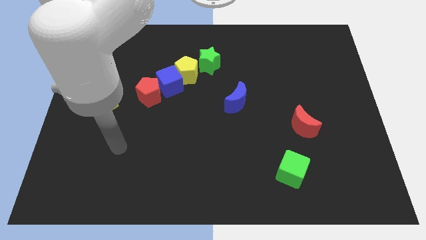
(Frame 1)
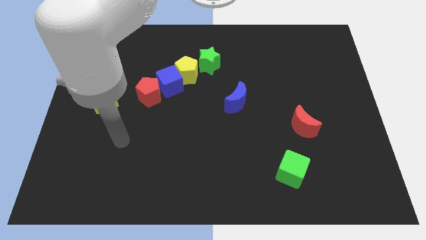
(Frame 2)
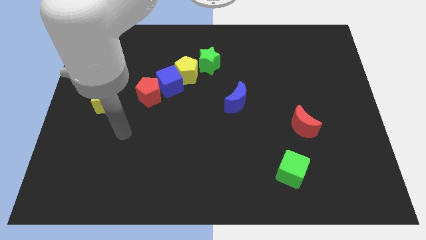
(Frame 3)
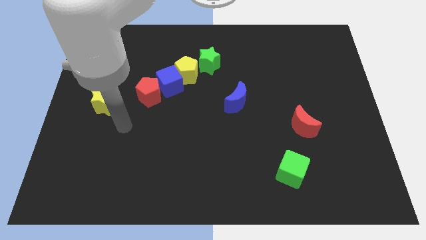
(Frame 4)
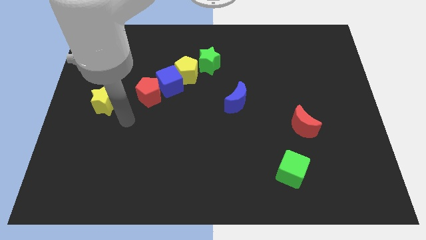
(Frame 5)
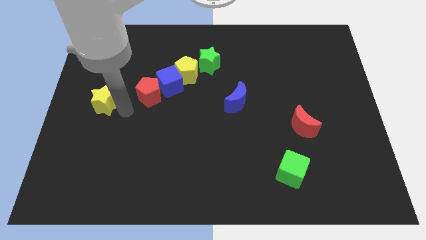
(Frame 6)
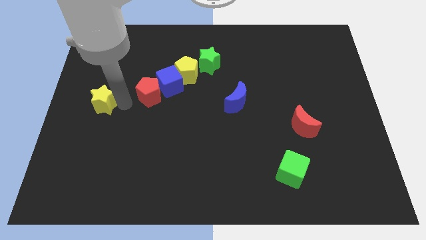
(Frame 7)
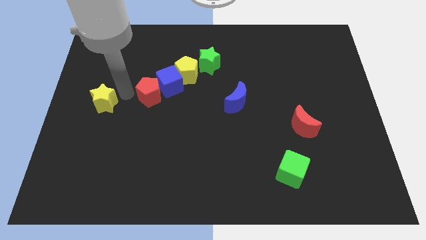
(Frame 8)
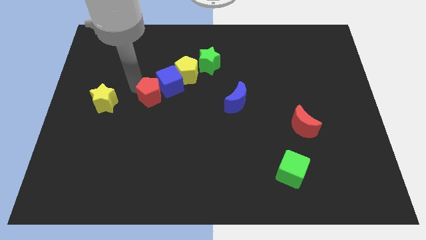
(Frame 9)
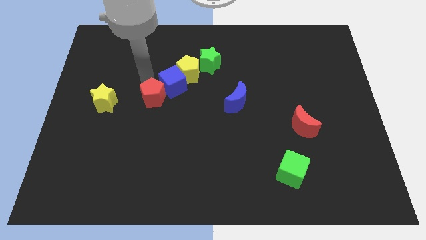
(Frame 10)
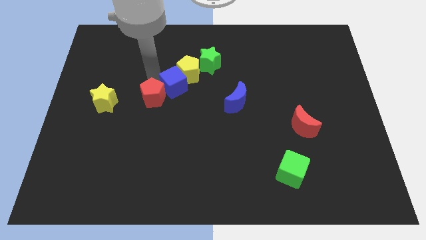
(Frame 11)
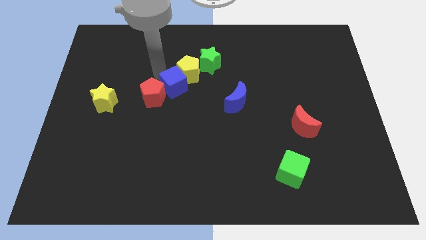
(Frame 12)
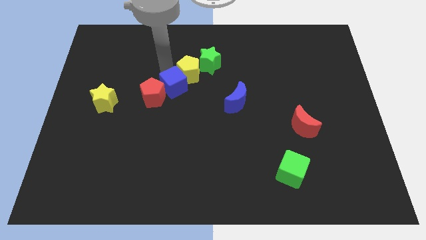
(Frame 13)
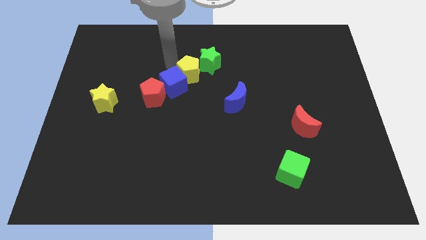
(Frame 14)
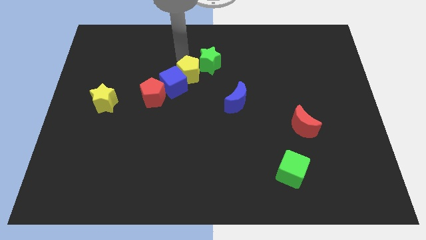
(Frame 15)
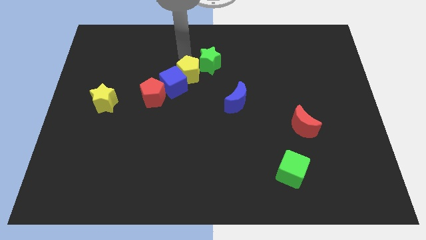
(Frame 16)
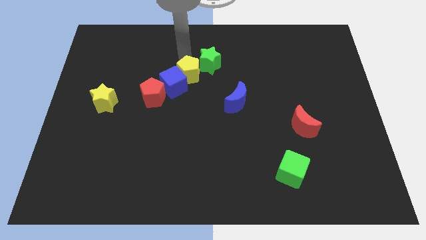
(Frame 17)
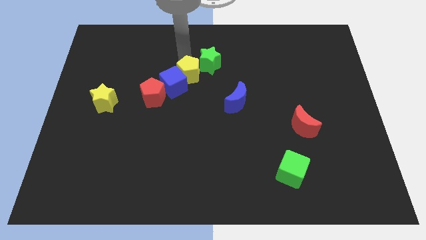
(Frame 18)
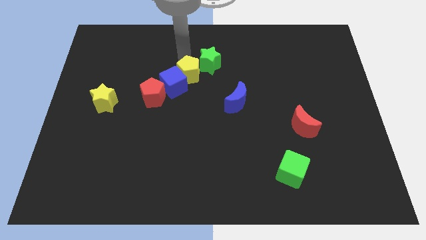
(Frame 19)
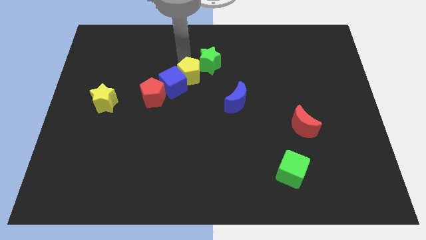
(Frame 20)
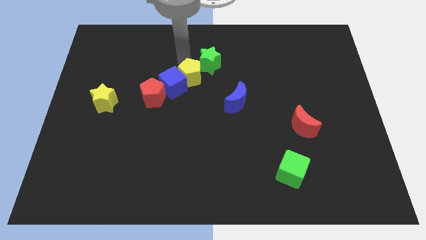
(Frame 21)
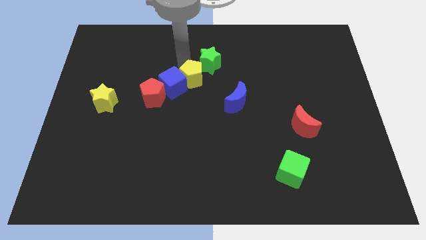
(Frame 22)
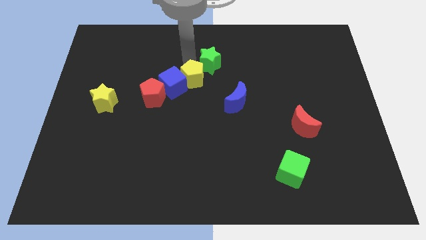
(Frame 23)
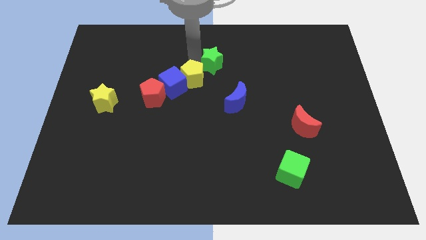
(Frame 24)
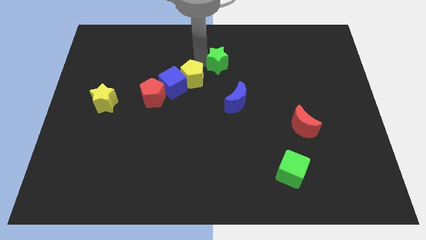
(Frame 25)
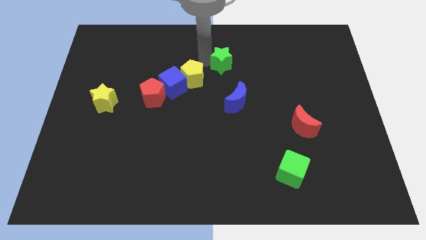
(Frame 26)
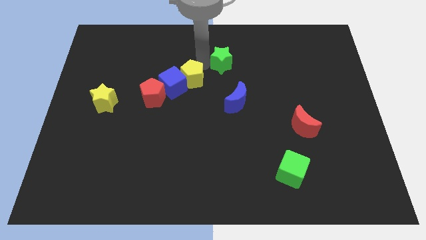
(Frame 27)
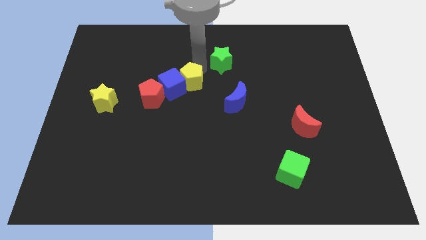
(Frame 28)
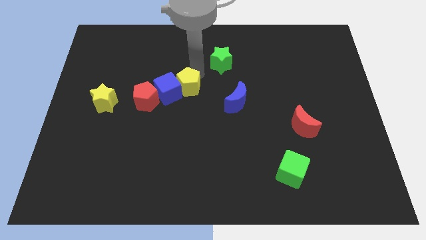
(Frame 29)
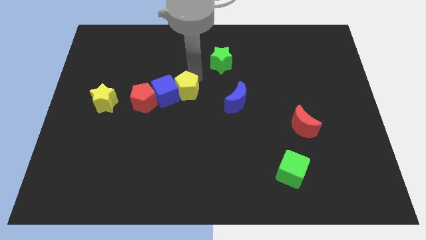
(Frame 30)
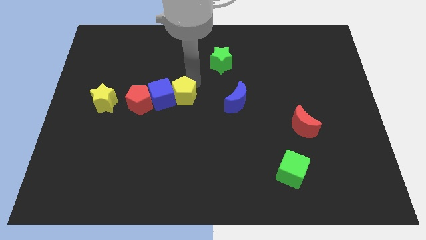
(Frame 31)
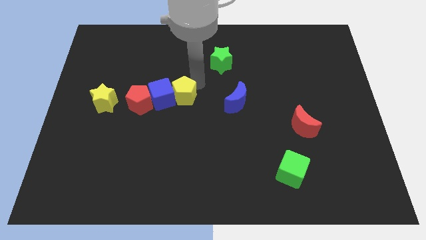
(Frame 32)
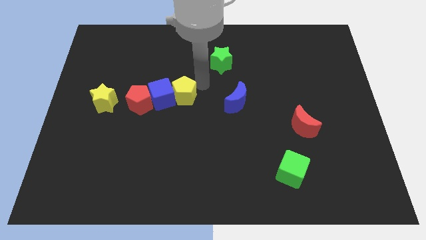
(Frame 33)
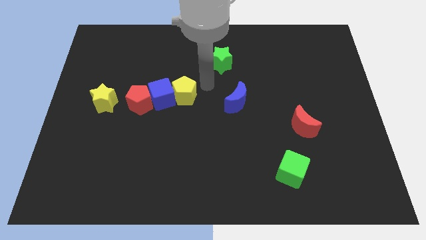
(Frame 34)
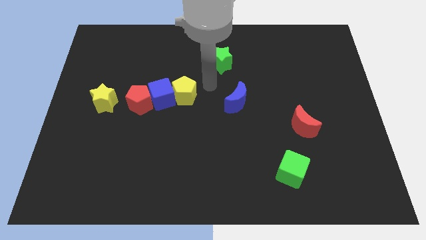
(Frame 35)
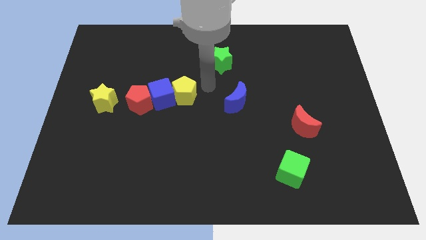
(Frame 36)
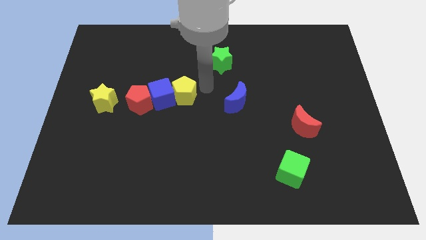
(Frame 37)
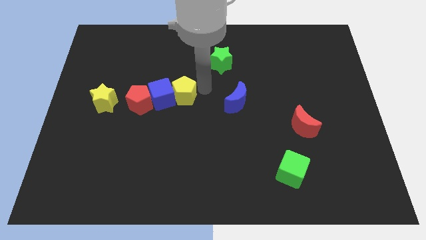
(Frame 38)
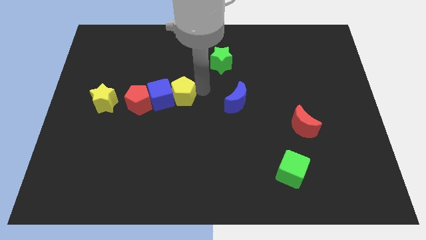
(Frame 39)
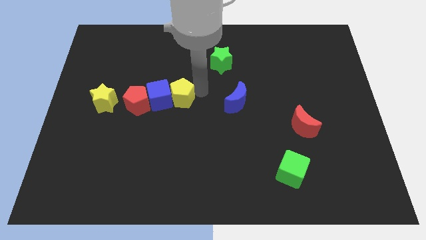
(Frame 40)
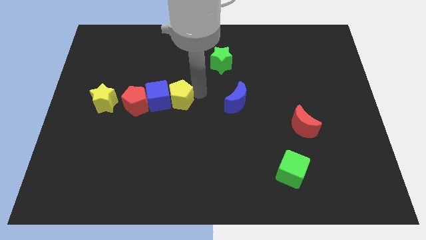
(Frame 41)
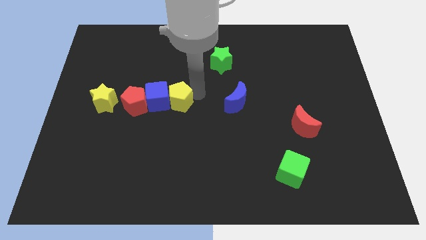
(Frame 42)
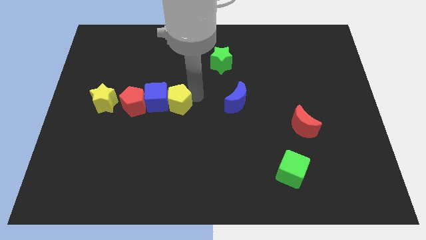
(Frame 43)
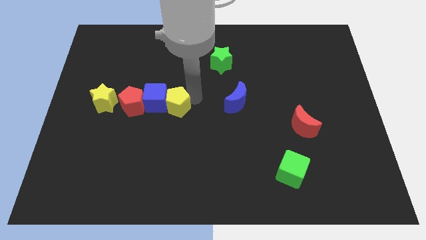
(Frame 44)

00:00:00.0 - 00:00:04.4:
slide the yellow pentagon down and then to the left somewhat

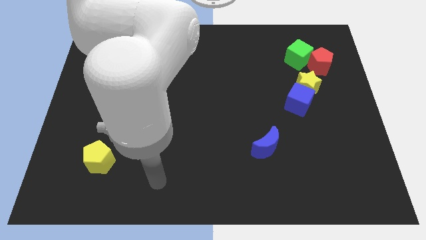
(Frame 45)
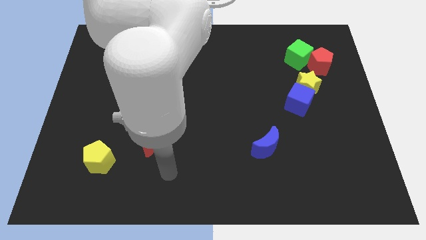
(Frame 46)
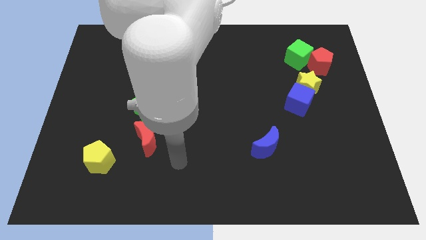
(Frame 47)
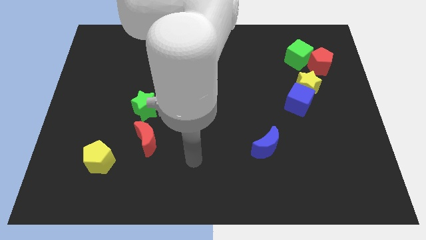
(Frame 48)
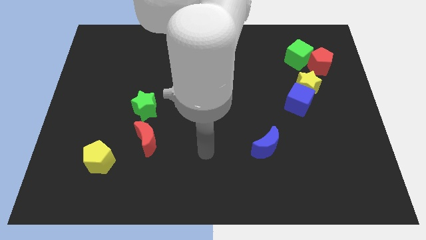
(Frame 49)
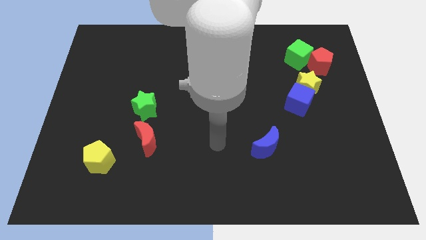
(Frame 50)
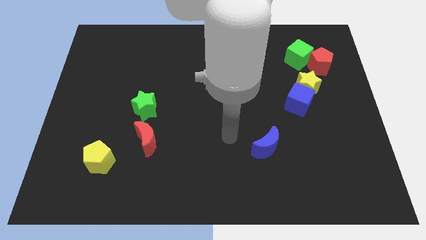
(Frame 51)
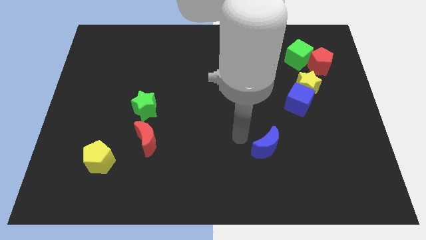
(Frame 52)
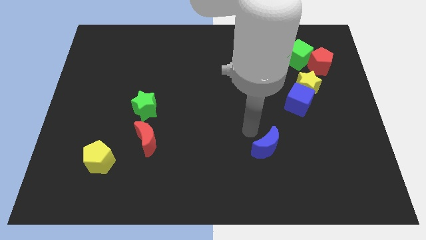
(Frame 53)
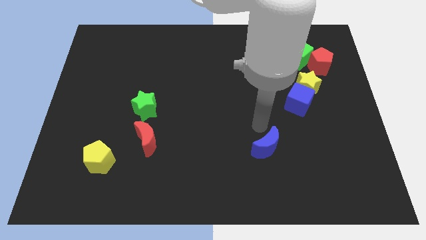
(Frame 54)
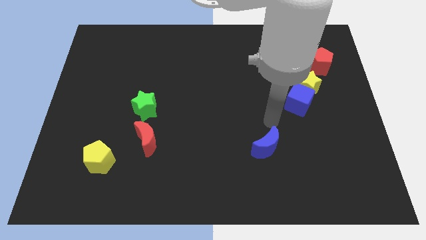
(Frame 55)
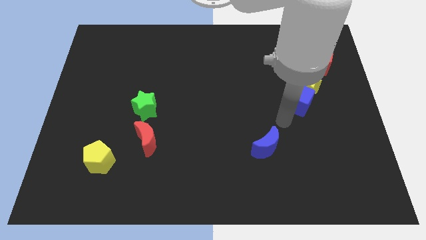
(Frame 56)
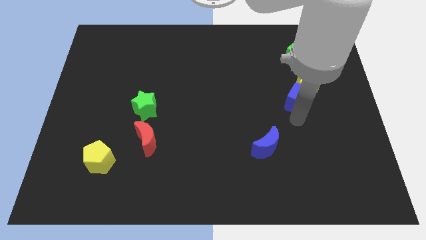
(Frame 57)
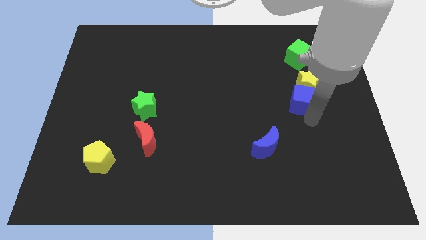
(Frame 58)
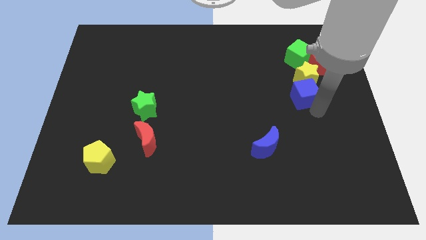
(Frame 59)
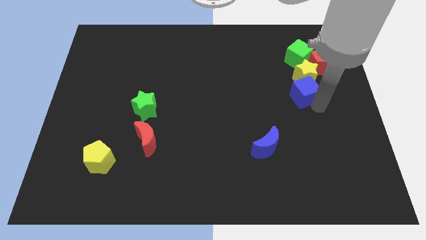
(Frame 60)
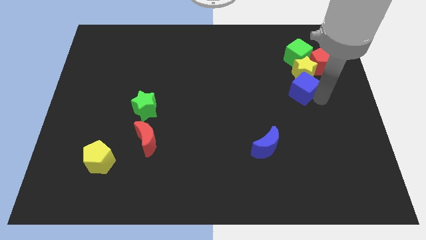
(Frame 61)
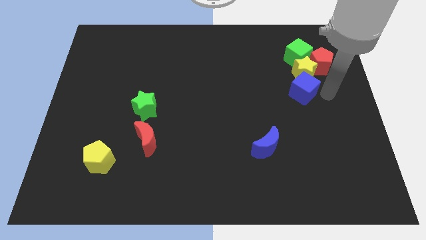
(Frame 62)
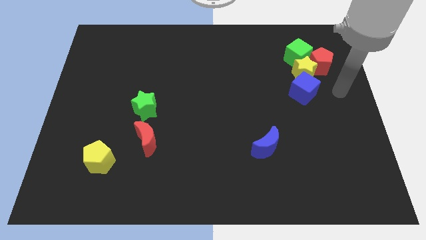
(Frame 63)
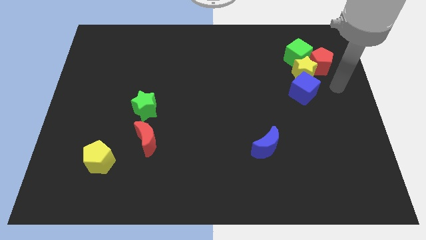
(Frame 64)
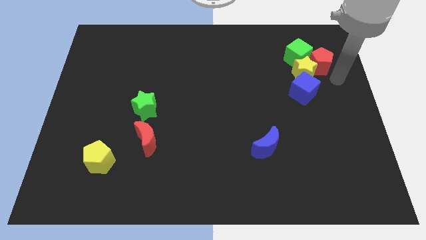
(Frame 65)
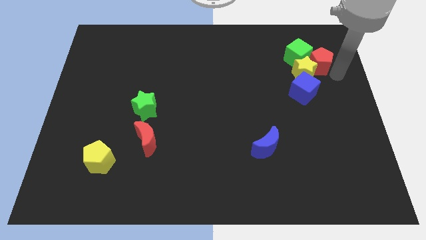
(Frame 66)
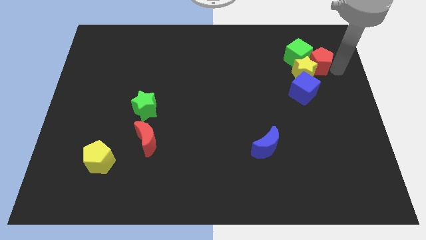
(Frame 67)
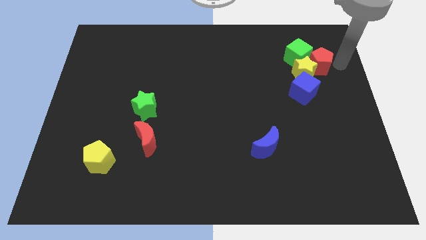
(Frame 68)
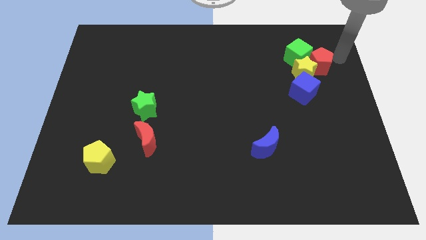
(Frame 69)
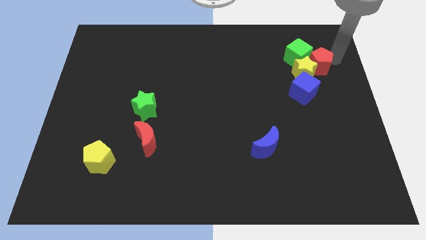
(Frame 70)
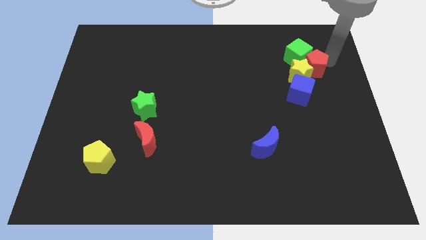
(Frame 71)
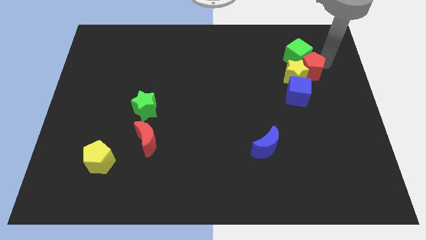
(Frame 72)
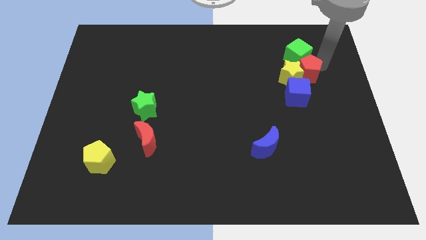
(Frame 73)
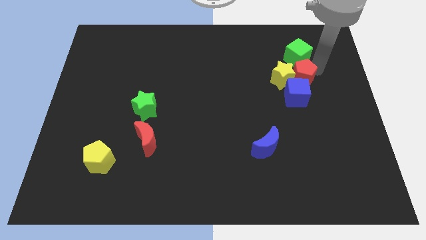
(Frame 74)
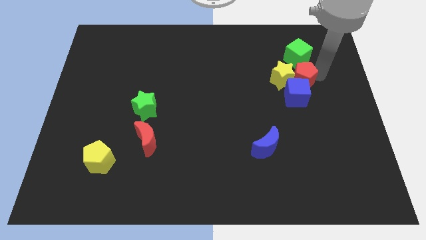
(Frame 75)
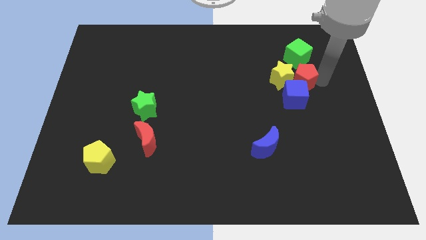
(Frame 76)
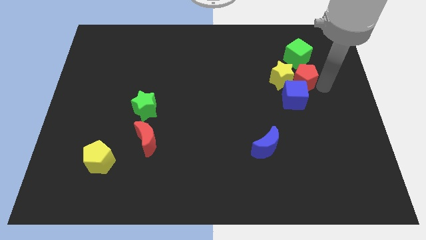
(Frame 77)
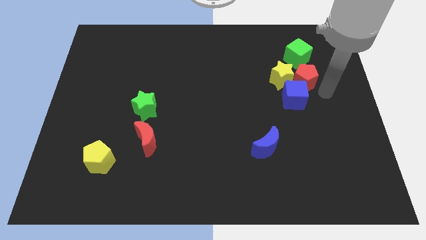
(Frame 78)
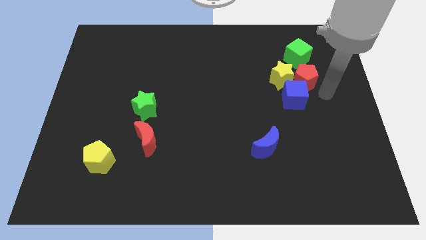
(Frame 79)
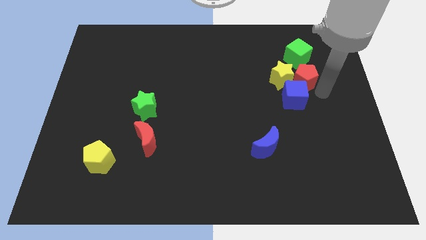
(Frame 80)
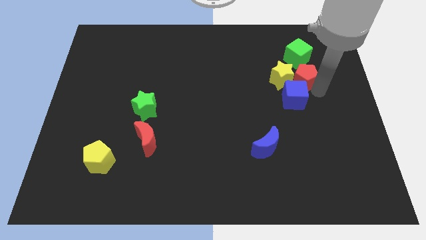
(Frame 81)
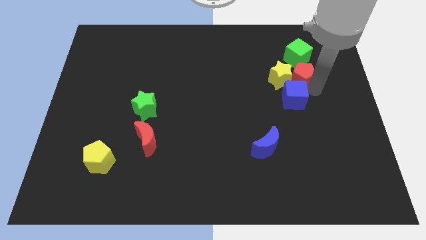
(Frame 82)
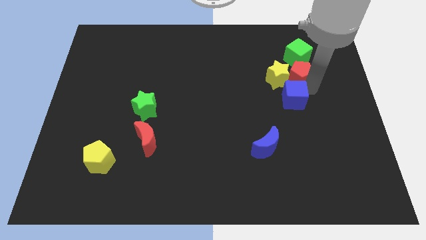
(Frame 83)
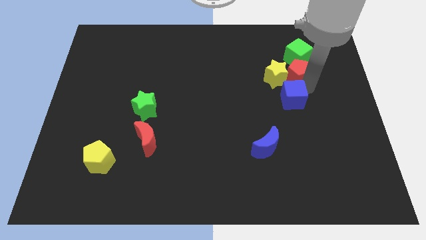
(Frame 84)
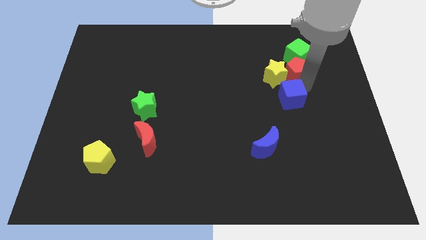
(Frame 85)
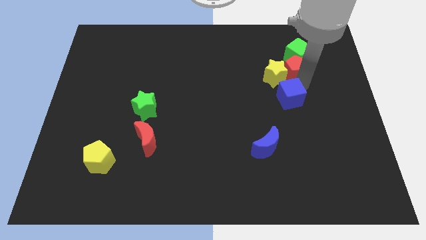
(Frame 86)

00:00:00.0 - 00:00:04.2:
slide the red pentagon to the left a little bit
